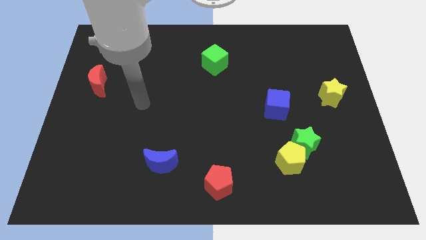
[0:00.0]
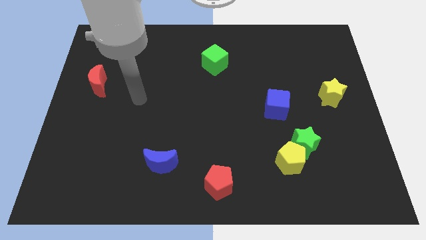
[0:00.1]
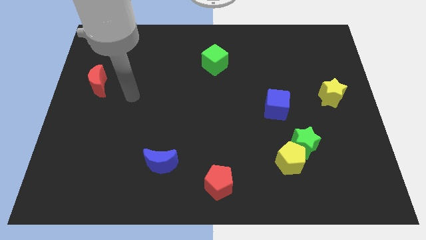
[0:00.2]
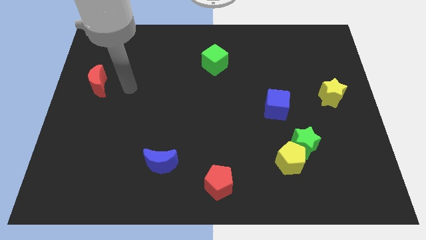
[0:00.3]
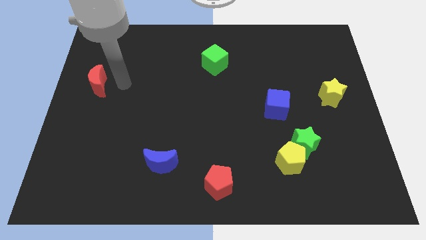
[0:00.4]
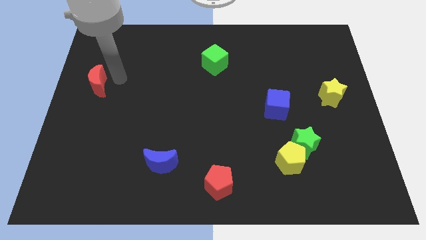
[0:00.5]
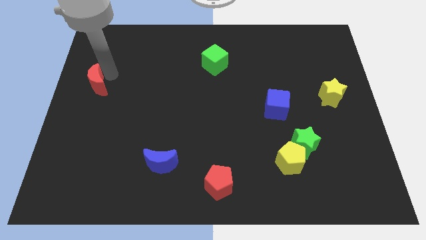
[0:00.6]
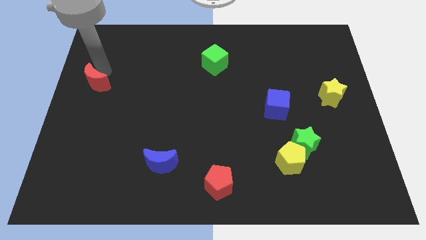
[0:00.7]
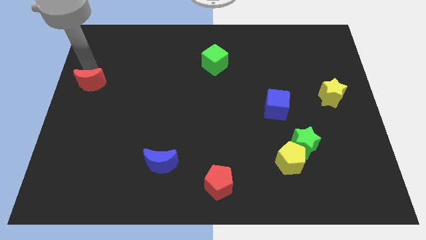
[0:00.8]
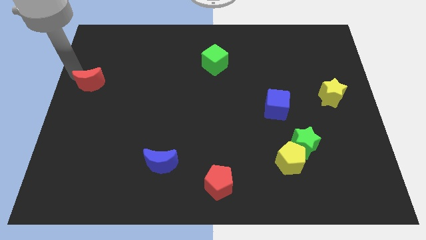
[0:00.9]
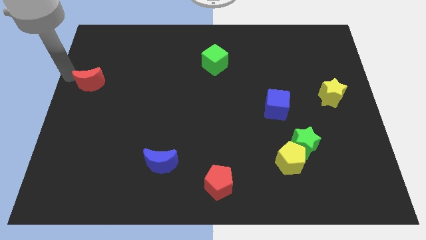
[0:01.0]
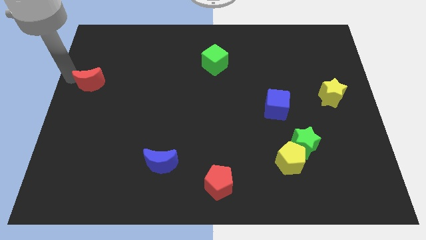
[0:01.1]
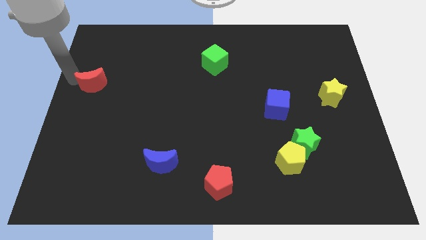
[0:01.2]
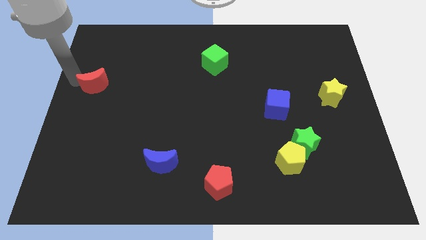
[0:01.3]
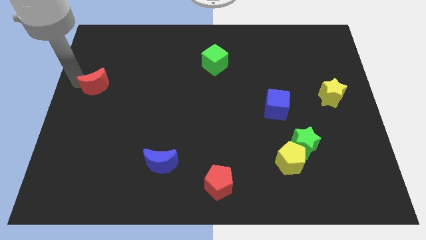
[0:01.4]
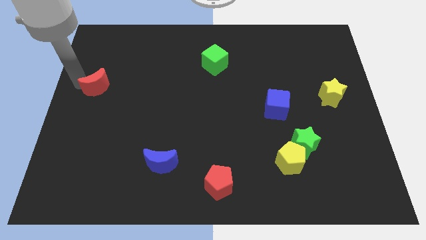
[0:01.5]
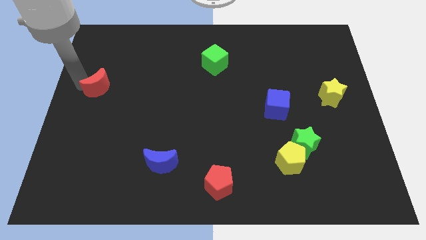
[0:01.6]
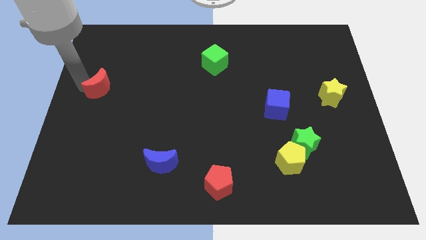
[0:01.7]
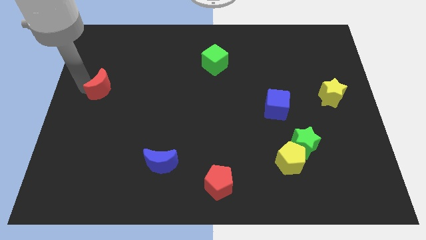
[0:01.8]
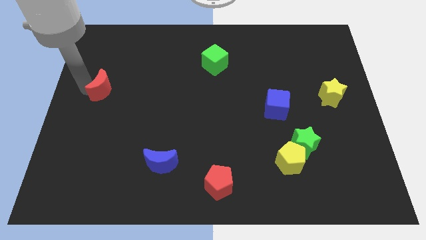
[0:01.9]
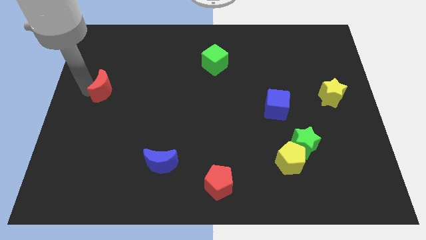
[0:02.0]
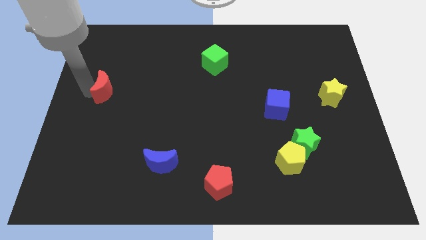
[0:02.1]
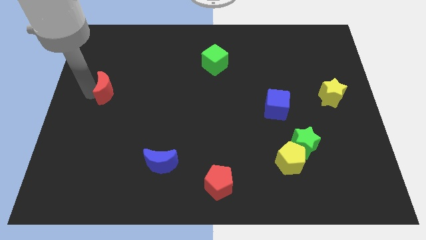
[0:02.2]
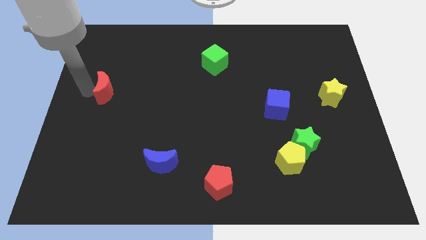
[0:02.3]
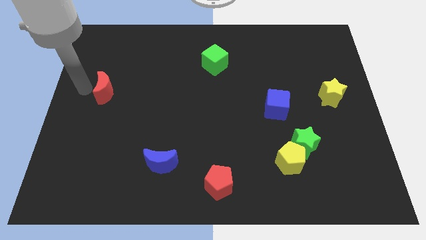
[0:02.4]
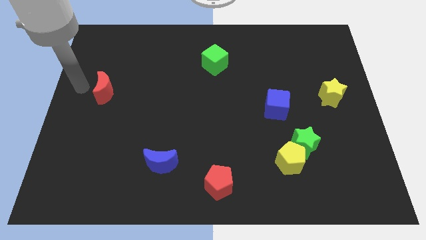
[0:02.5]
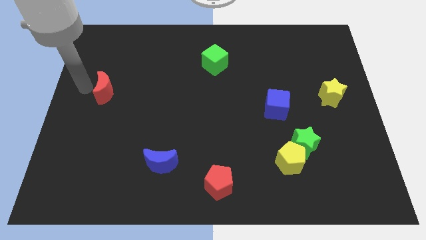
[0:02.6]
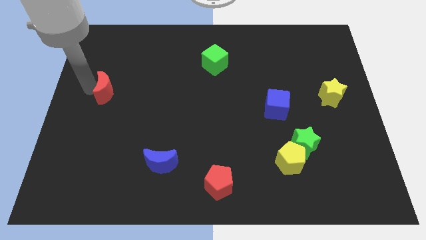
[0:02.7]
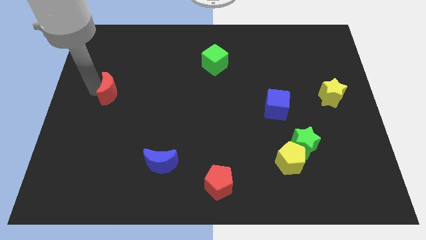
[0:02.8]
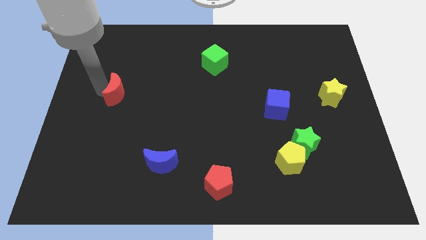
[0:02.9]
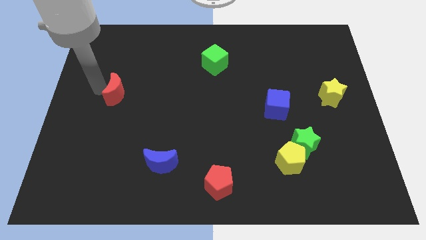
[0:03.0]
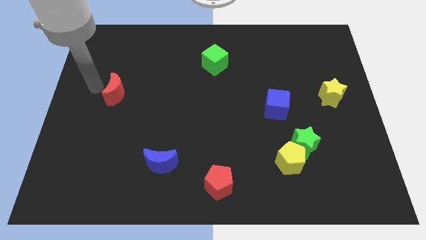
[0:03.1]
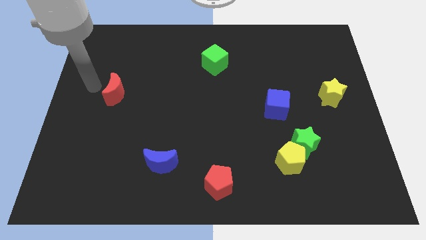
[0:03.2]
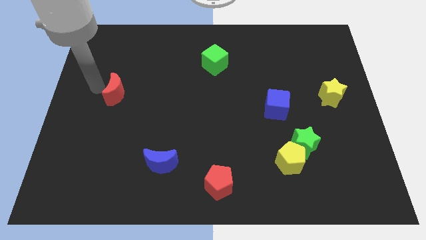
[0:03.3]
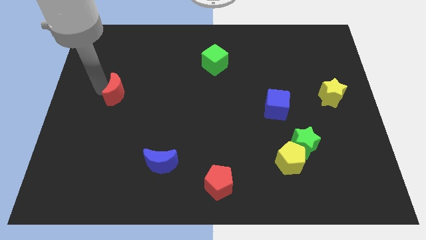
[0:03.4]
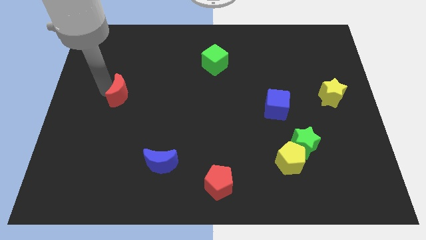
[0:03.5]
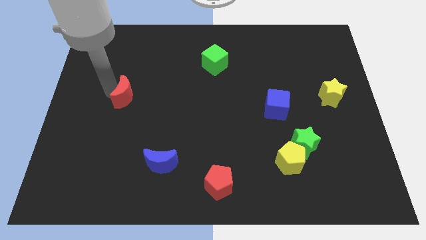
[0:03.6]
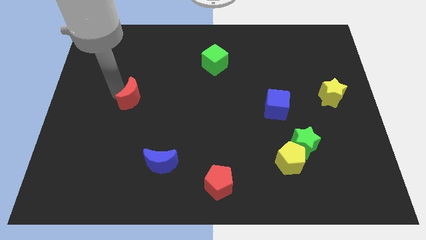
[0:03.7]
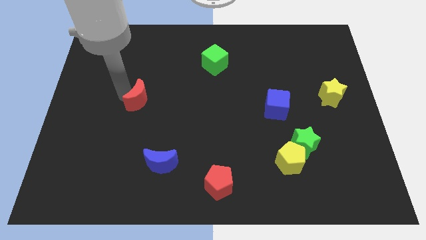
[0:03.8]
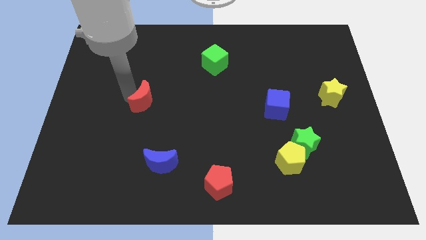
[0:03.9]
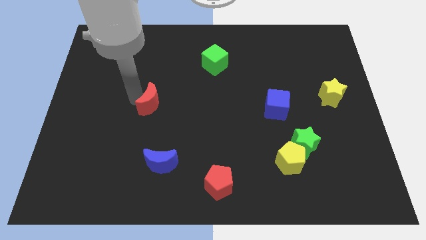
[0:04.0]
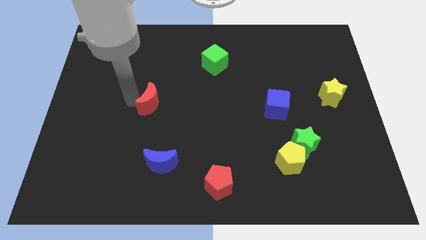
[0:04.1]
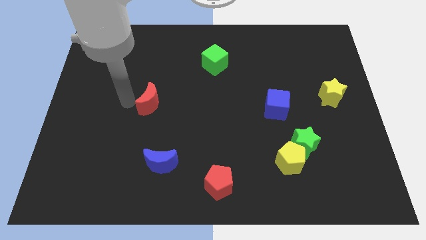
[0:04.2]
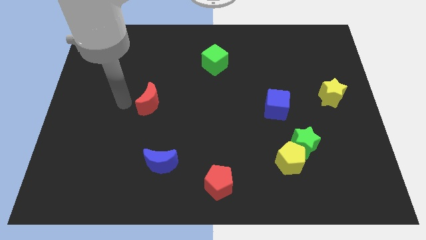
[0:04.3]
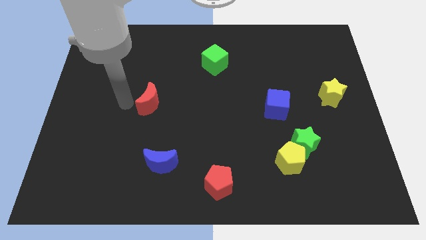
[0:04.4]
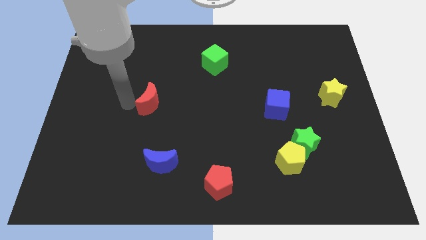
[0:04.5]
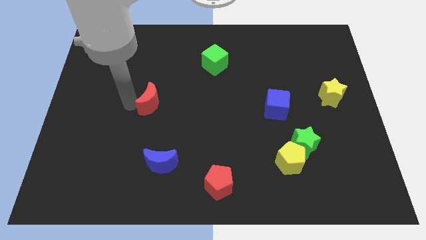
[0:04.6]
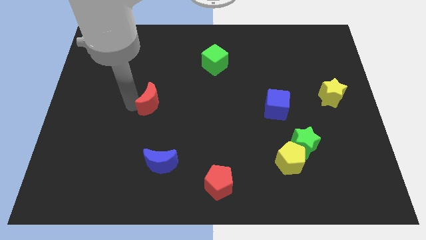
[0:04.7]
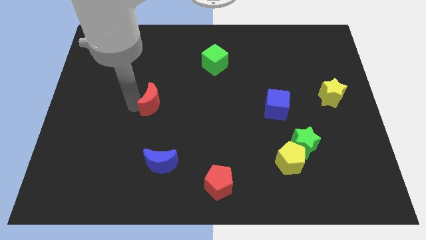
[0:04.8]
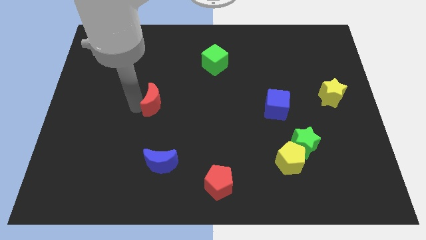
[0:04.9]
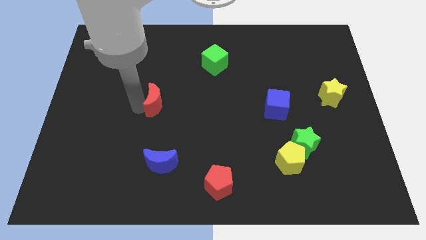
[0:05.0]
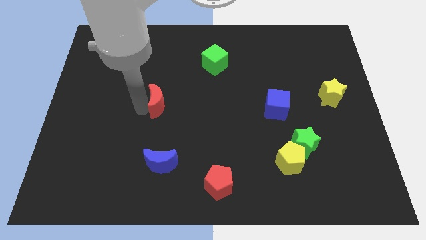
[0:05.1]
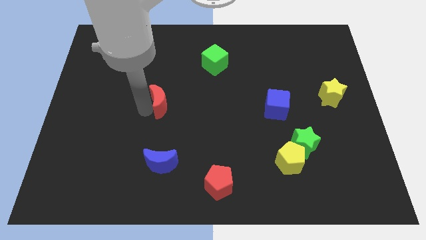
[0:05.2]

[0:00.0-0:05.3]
move the red moon to the center

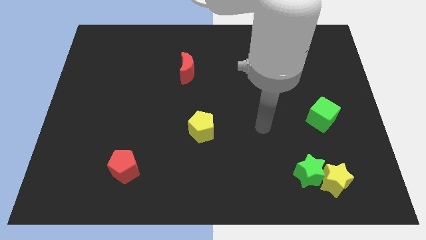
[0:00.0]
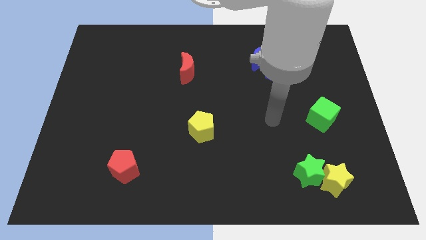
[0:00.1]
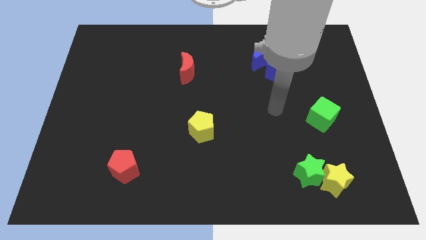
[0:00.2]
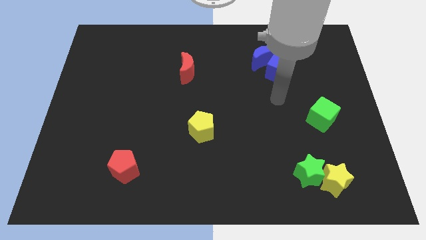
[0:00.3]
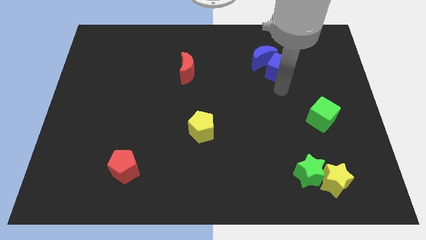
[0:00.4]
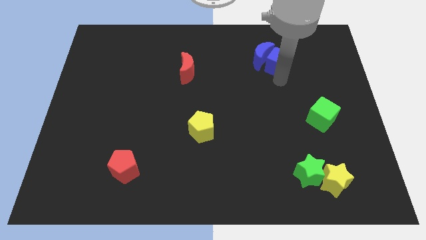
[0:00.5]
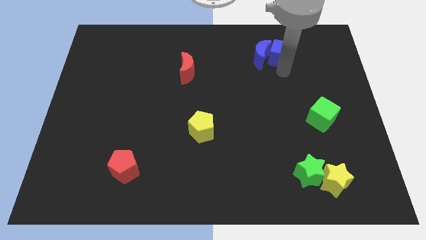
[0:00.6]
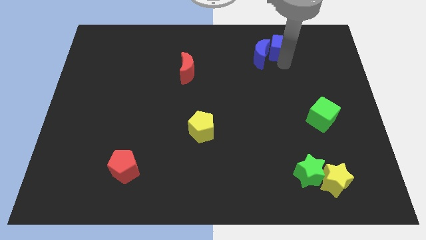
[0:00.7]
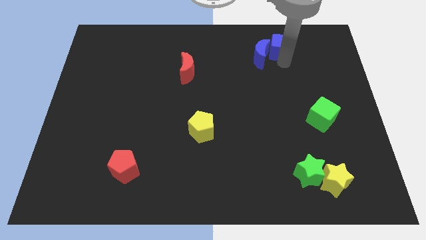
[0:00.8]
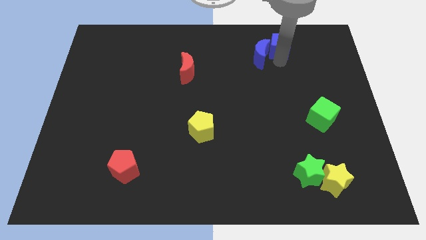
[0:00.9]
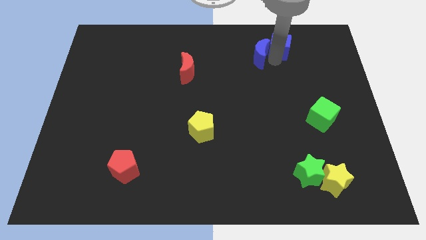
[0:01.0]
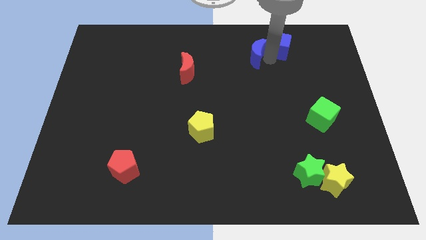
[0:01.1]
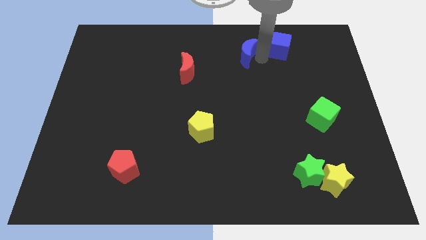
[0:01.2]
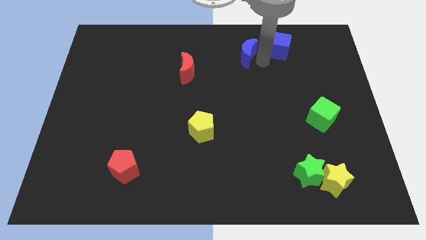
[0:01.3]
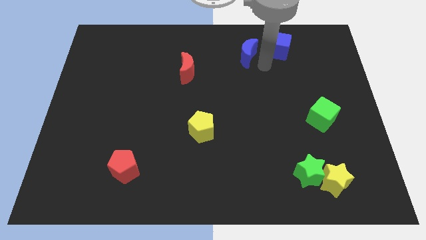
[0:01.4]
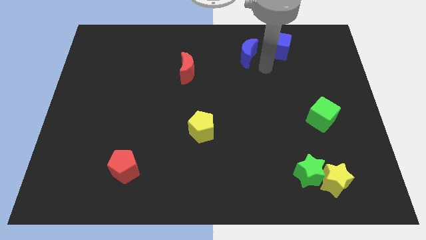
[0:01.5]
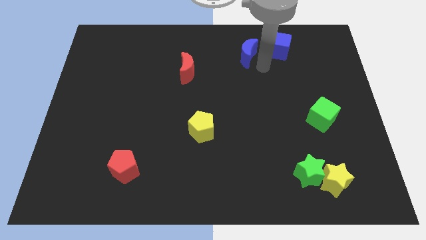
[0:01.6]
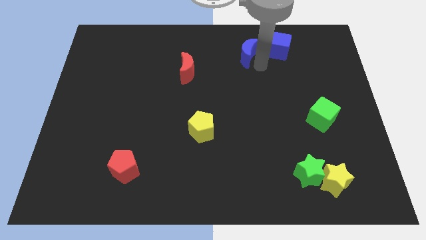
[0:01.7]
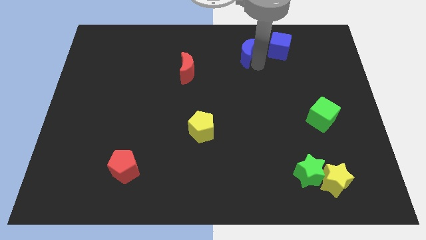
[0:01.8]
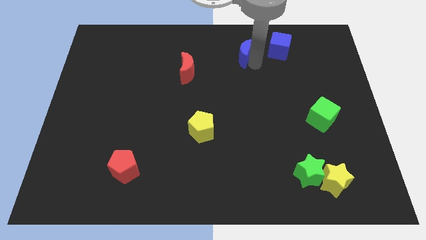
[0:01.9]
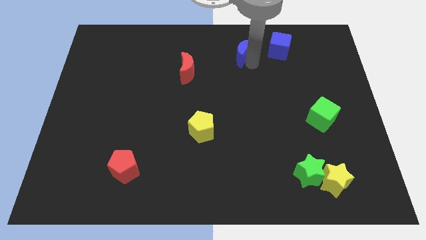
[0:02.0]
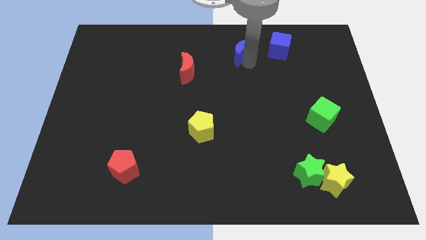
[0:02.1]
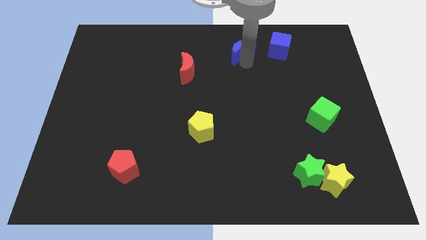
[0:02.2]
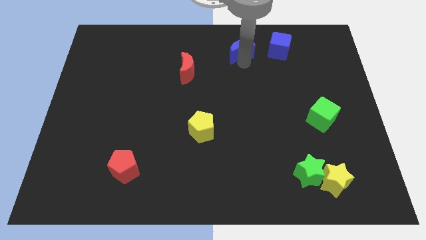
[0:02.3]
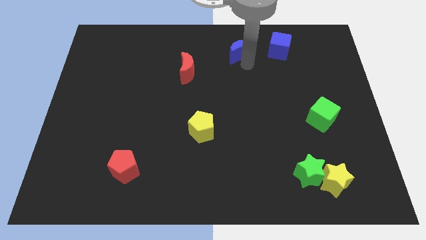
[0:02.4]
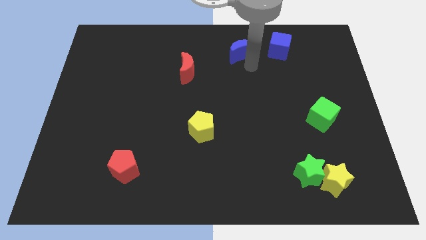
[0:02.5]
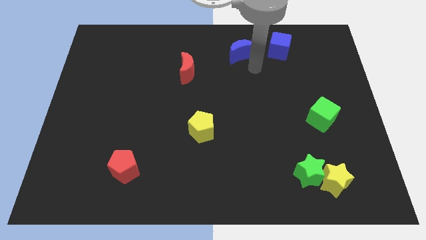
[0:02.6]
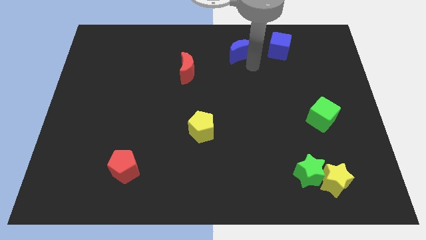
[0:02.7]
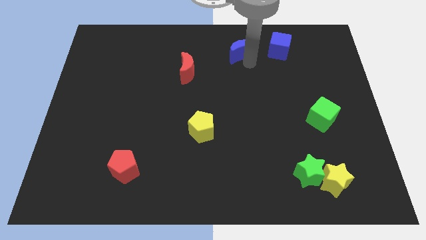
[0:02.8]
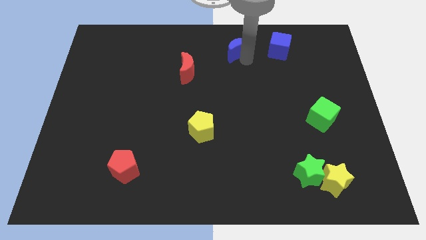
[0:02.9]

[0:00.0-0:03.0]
move the blue moon to the top side
